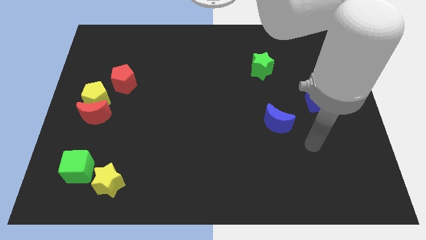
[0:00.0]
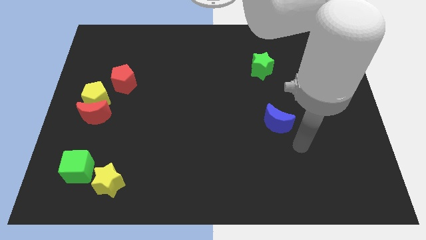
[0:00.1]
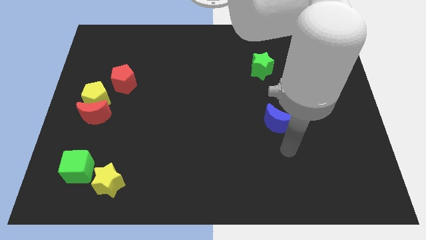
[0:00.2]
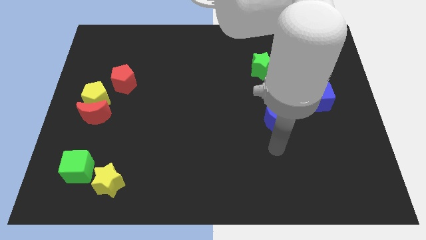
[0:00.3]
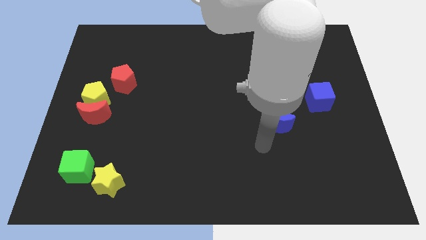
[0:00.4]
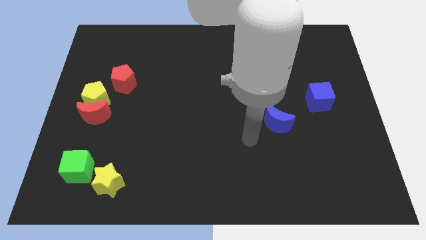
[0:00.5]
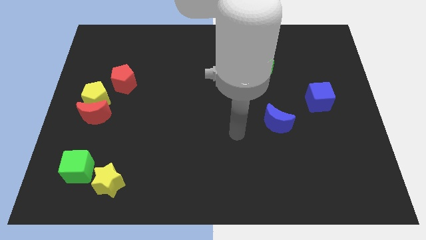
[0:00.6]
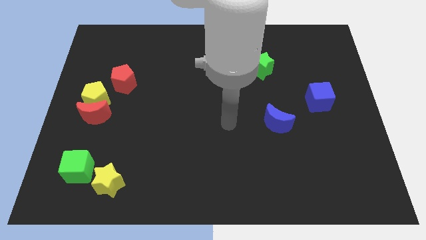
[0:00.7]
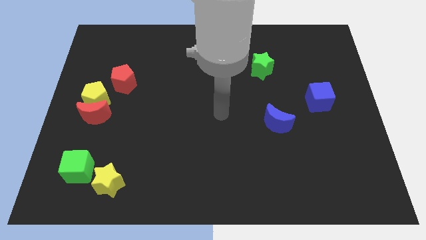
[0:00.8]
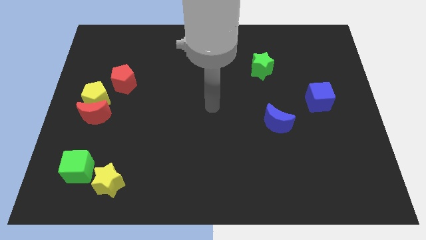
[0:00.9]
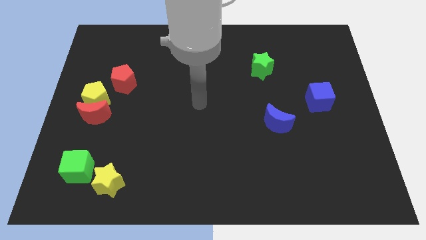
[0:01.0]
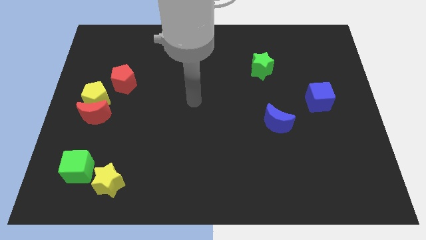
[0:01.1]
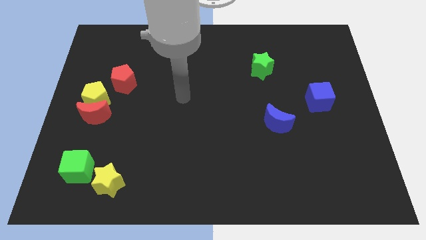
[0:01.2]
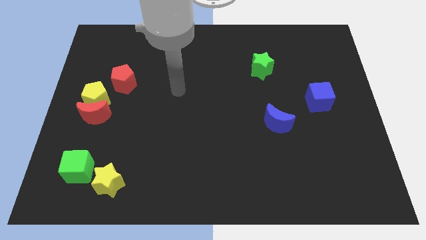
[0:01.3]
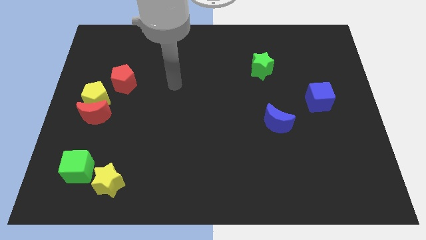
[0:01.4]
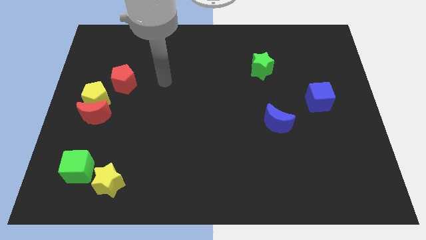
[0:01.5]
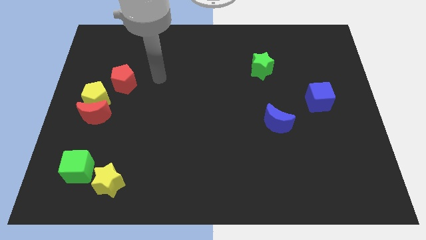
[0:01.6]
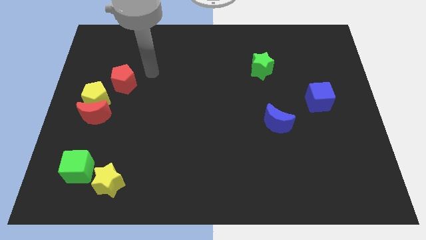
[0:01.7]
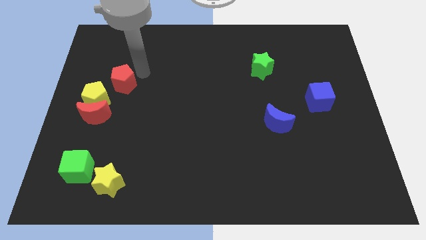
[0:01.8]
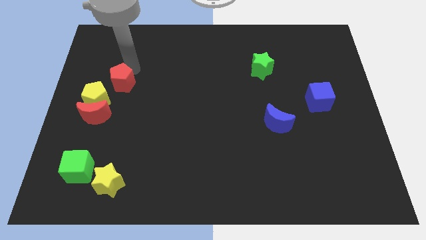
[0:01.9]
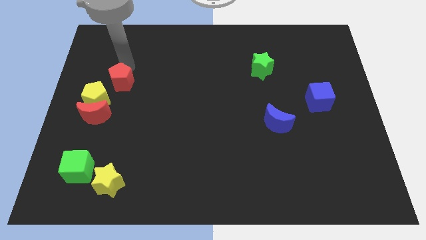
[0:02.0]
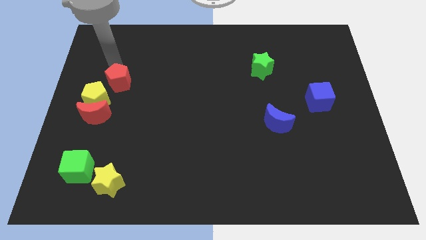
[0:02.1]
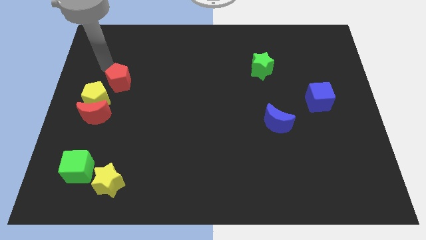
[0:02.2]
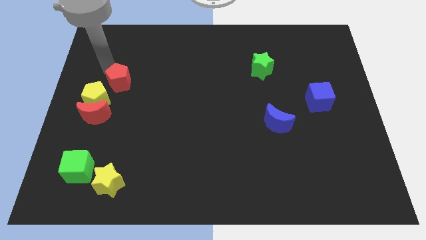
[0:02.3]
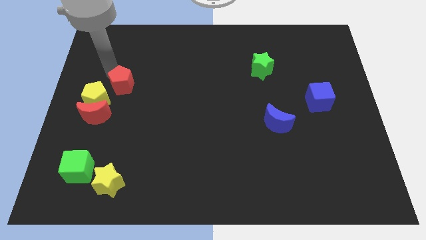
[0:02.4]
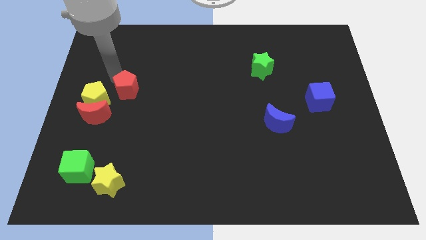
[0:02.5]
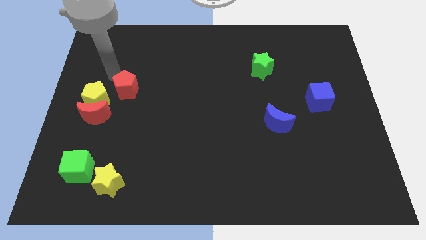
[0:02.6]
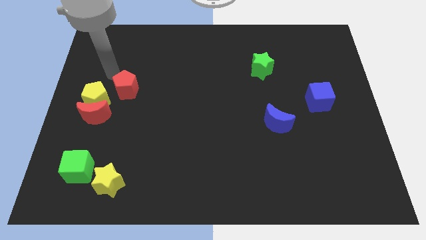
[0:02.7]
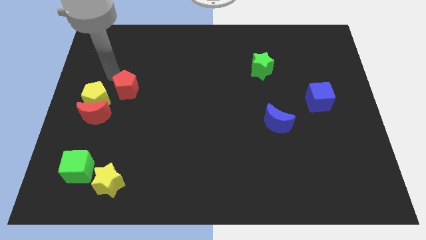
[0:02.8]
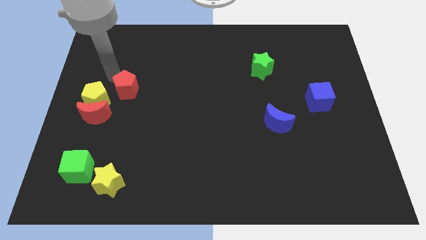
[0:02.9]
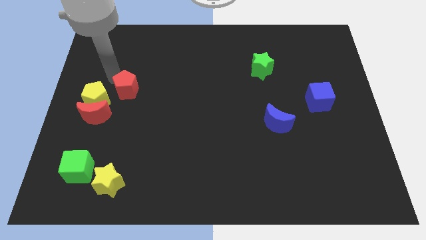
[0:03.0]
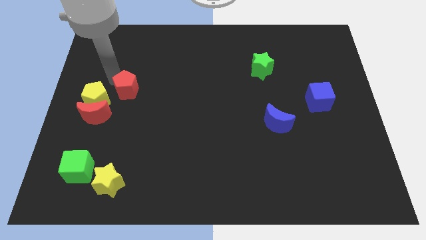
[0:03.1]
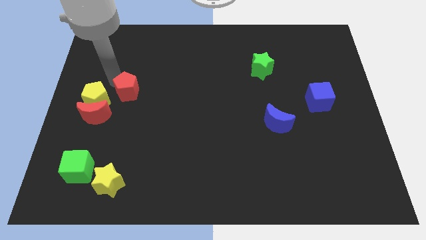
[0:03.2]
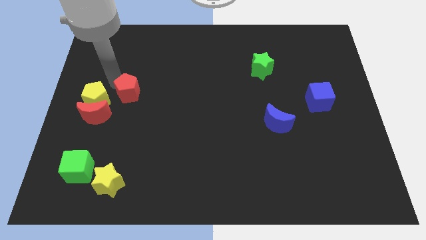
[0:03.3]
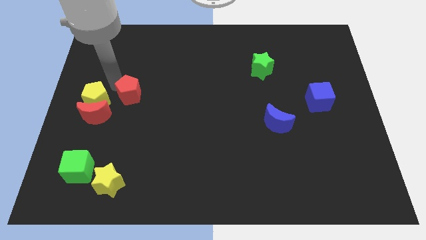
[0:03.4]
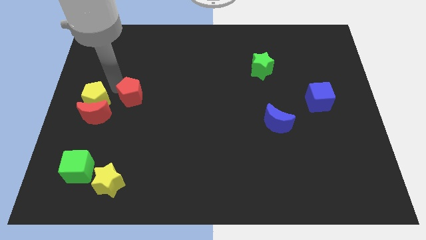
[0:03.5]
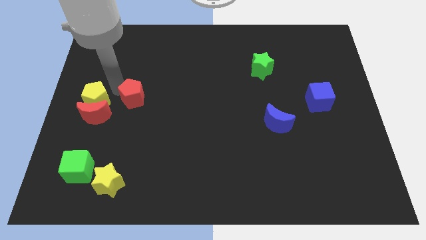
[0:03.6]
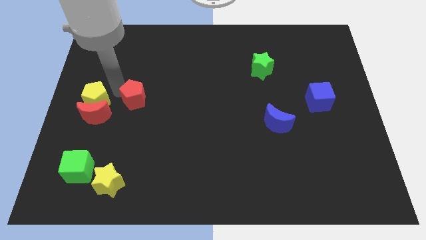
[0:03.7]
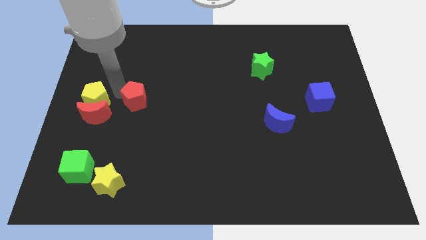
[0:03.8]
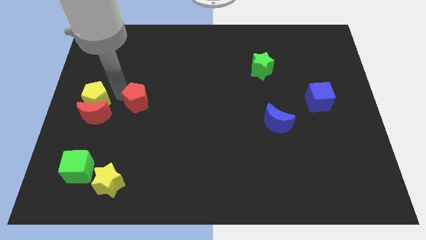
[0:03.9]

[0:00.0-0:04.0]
move the red pentagon somewhat down and then right

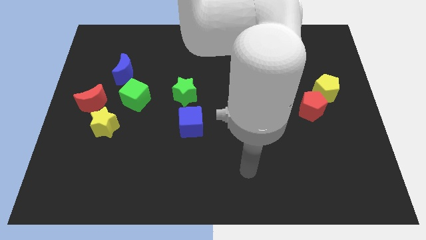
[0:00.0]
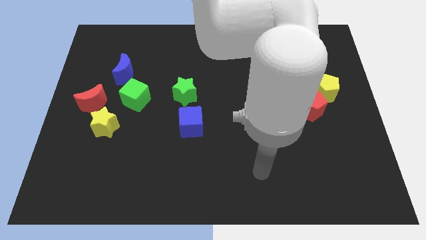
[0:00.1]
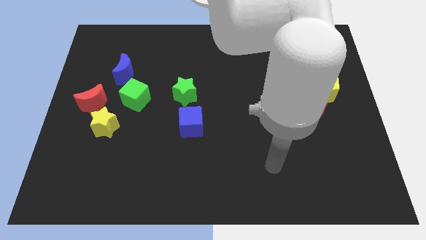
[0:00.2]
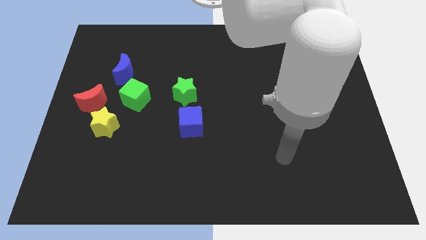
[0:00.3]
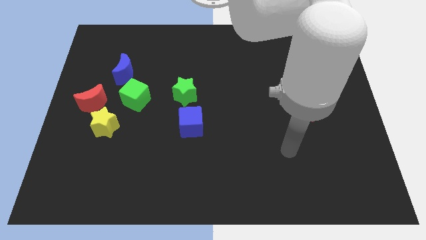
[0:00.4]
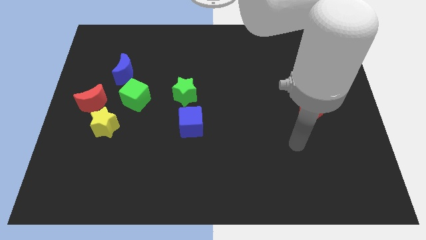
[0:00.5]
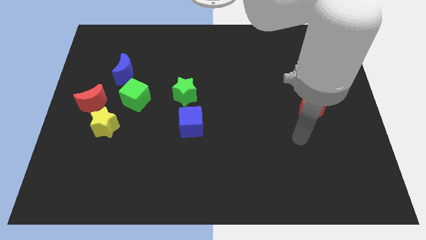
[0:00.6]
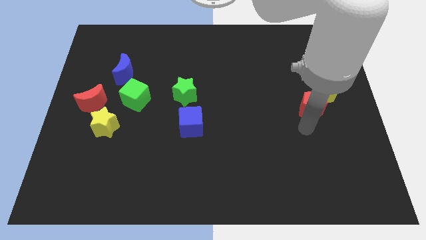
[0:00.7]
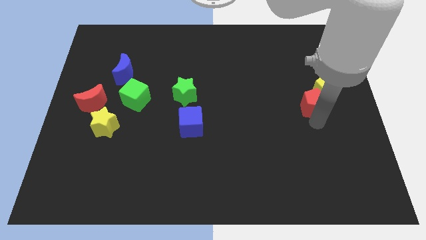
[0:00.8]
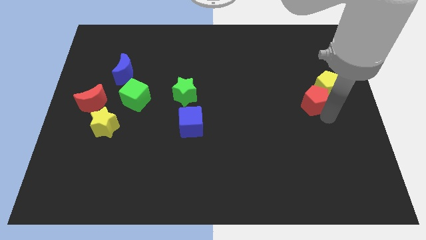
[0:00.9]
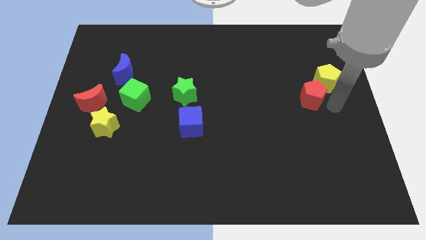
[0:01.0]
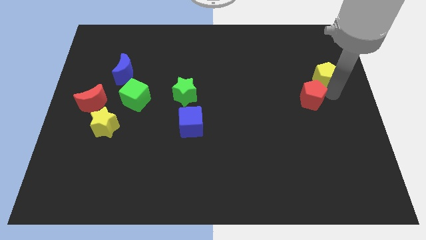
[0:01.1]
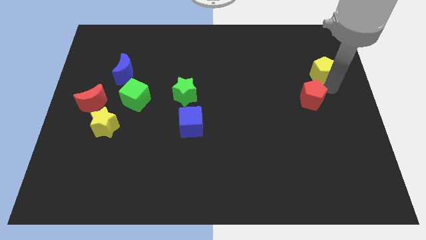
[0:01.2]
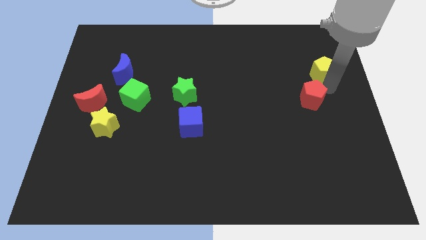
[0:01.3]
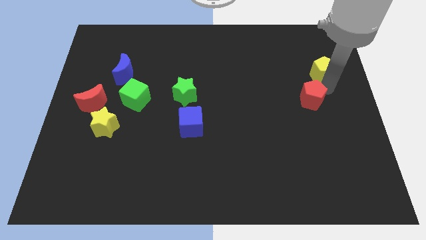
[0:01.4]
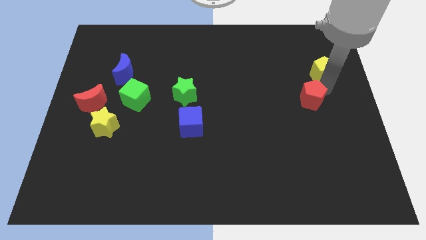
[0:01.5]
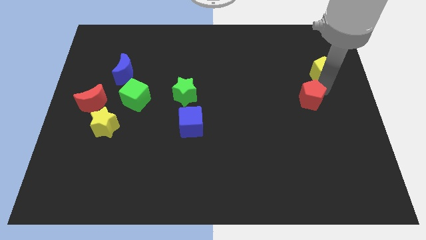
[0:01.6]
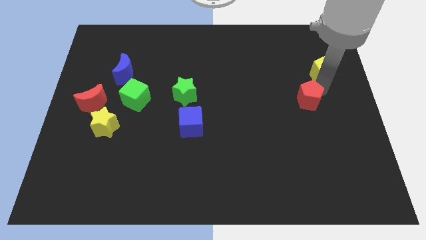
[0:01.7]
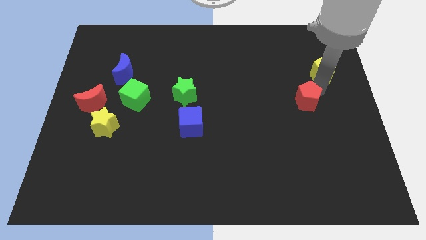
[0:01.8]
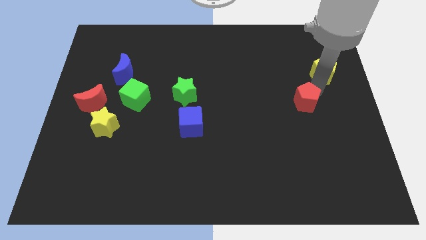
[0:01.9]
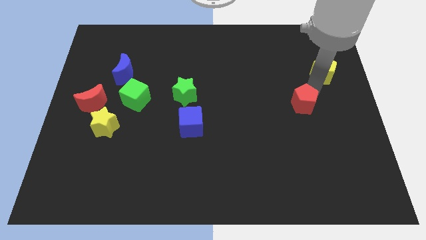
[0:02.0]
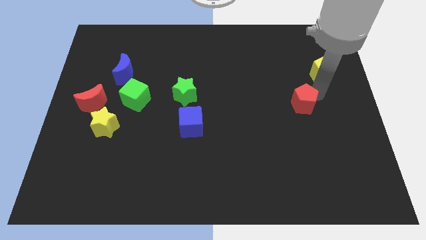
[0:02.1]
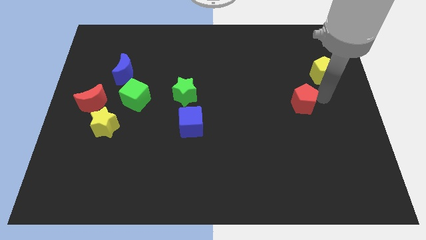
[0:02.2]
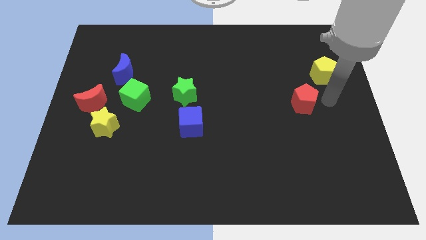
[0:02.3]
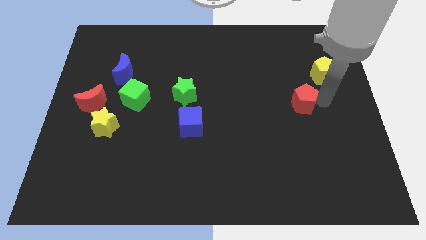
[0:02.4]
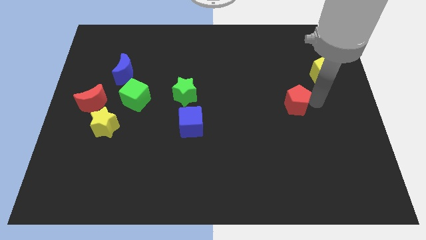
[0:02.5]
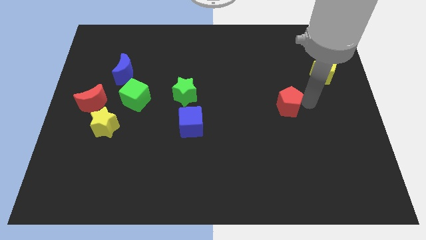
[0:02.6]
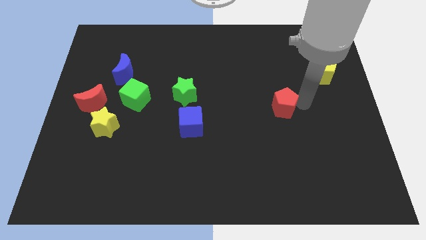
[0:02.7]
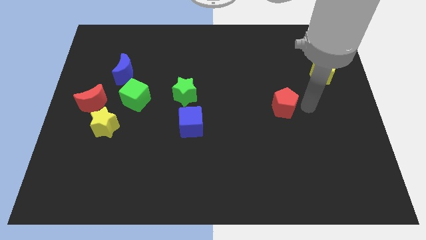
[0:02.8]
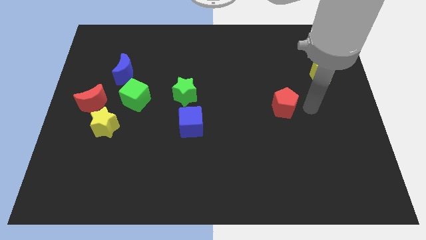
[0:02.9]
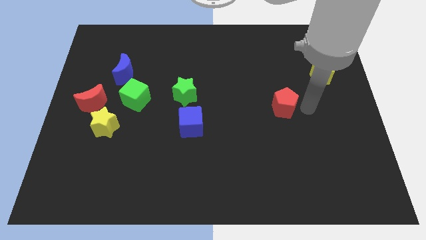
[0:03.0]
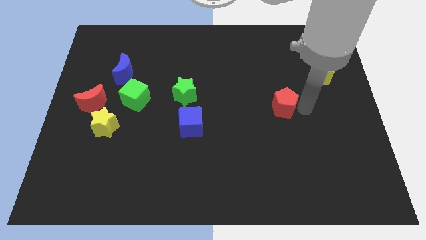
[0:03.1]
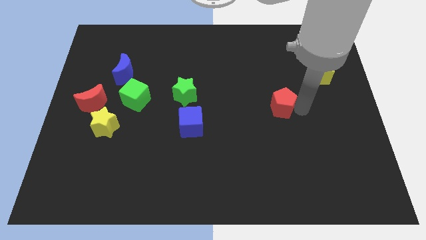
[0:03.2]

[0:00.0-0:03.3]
move the red pentagon somewhat to the left

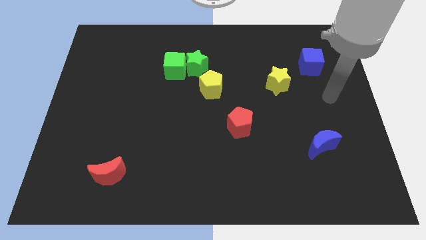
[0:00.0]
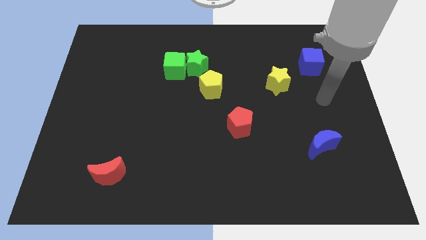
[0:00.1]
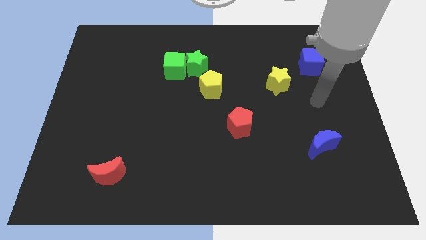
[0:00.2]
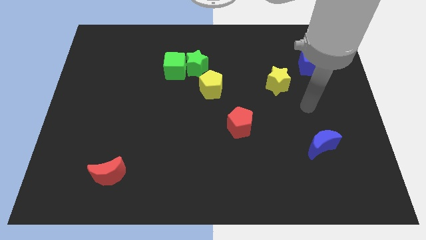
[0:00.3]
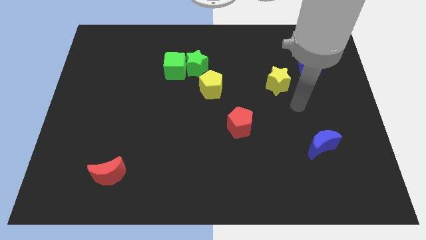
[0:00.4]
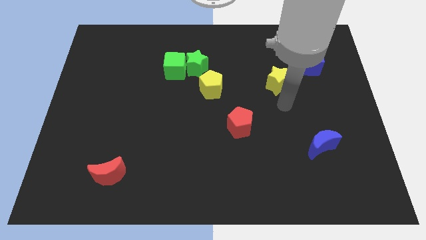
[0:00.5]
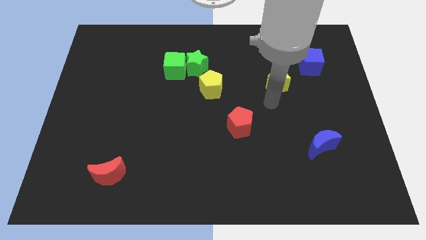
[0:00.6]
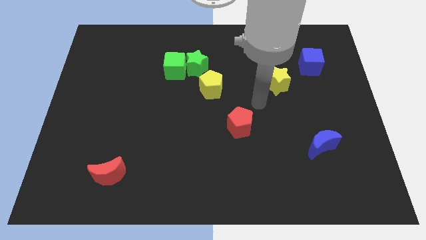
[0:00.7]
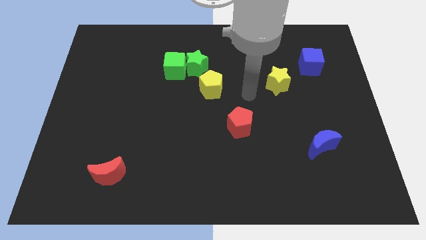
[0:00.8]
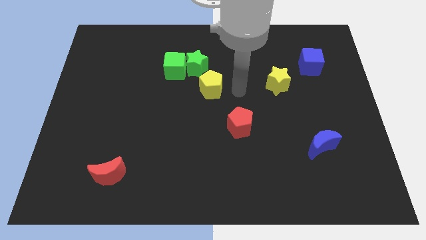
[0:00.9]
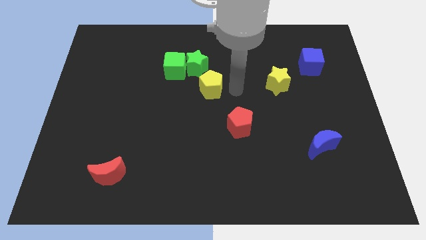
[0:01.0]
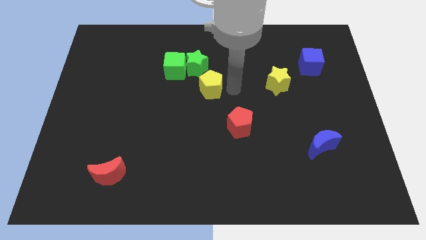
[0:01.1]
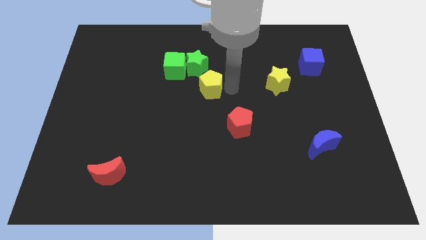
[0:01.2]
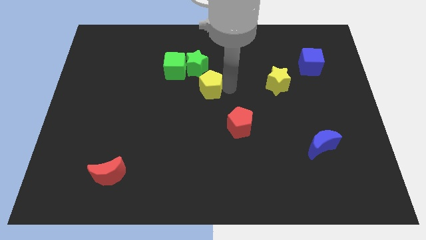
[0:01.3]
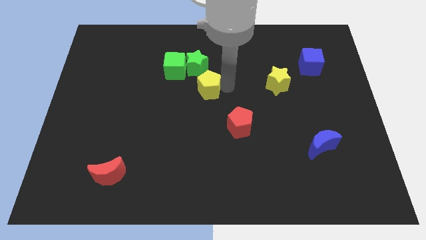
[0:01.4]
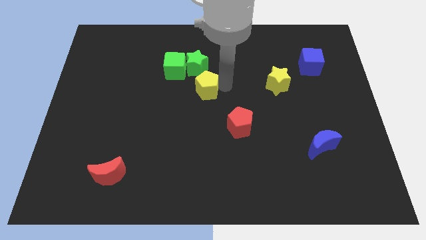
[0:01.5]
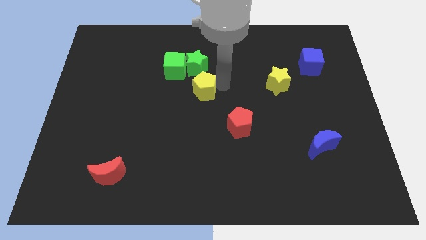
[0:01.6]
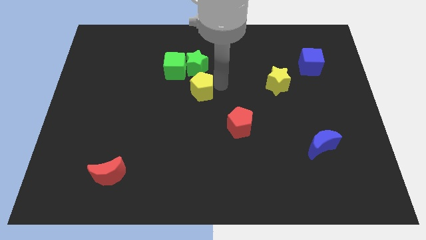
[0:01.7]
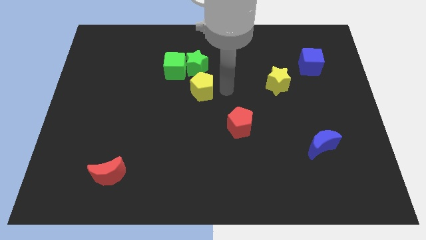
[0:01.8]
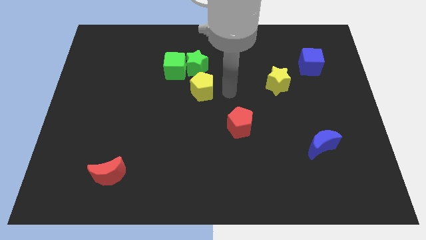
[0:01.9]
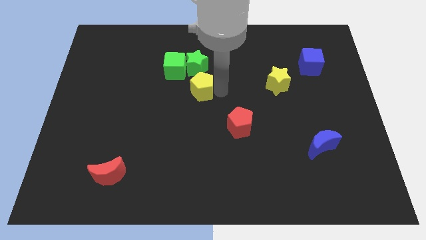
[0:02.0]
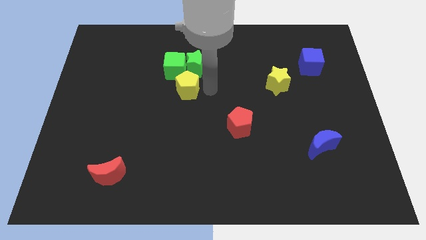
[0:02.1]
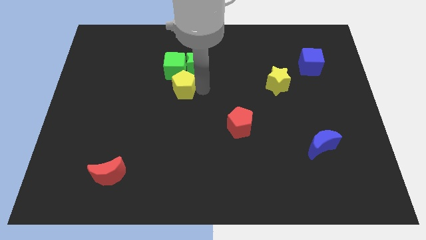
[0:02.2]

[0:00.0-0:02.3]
slide the yellow pentagon a little bit to the left
